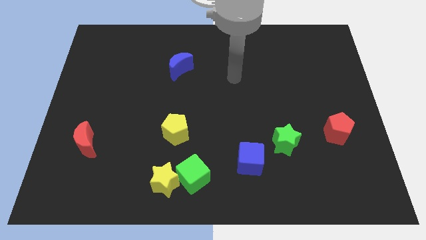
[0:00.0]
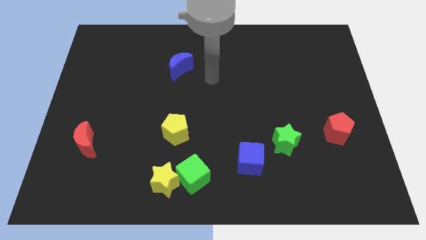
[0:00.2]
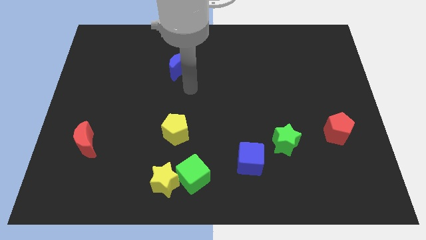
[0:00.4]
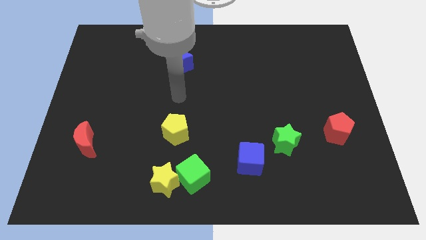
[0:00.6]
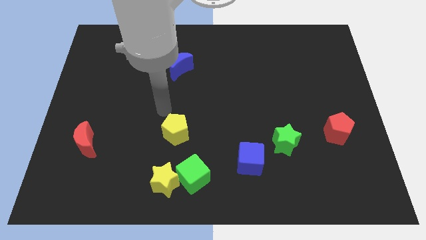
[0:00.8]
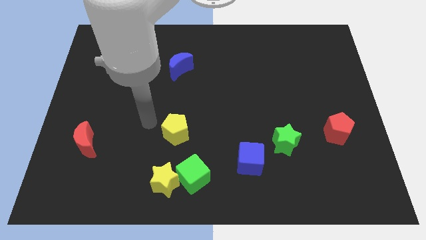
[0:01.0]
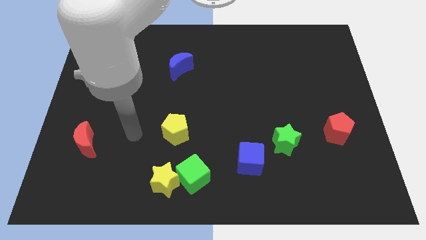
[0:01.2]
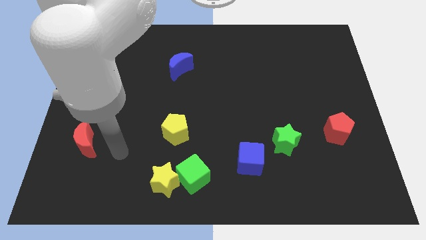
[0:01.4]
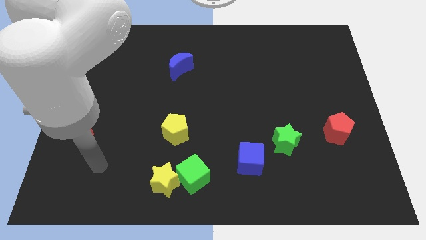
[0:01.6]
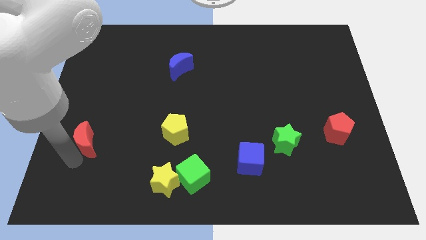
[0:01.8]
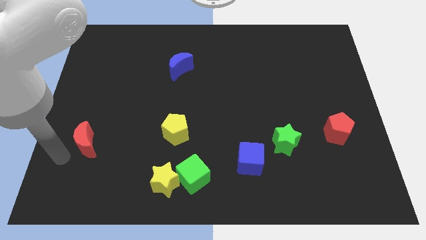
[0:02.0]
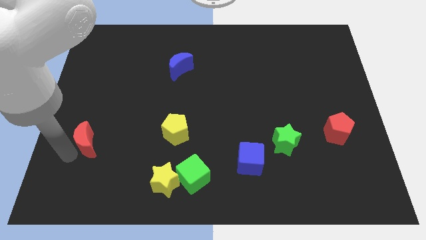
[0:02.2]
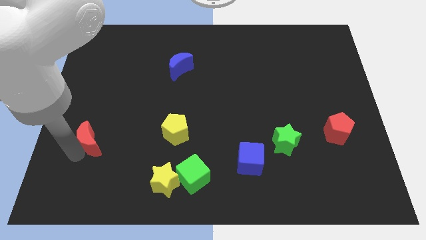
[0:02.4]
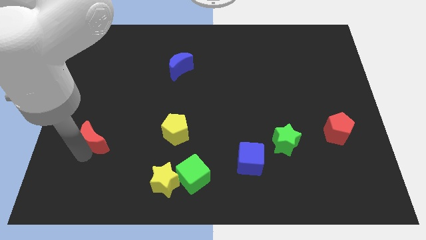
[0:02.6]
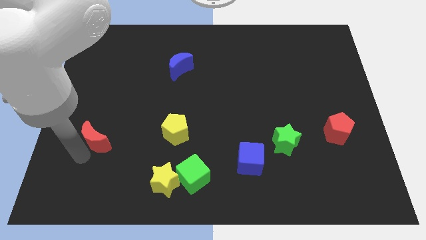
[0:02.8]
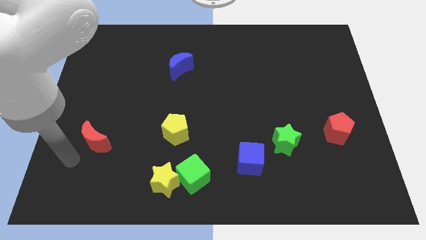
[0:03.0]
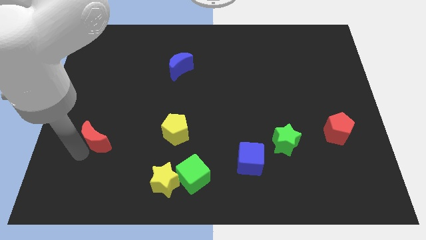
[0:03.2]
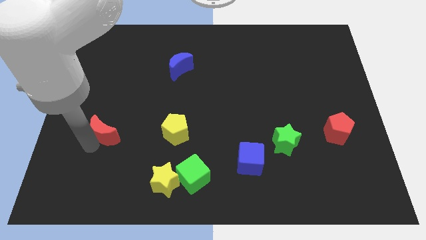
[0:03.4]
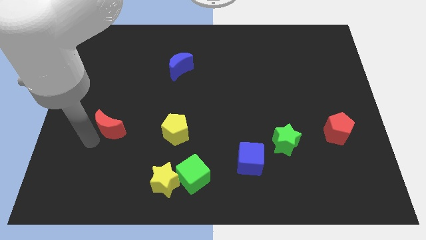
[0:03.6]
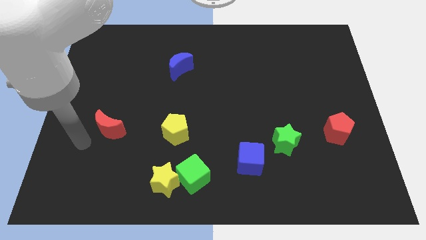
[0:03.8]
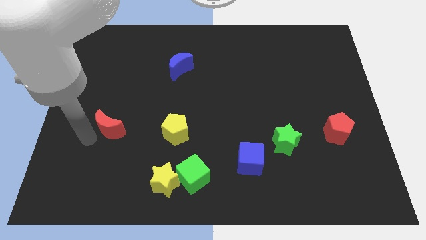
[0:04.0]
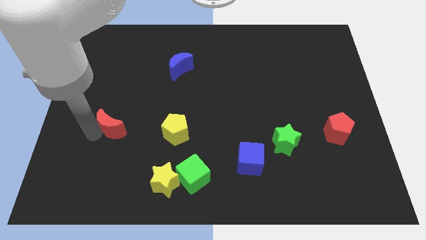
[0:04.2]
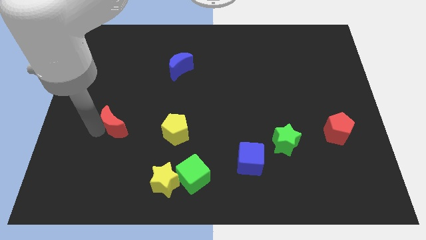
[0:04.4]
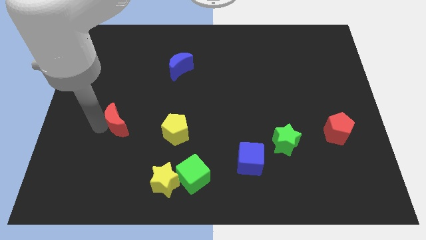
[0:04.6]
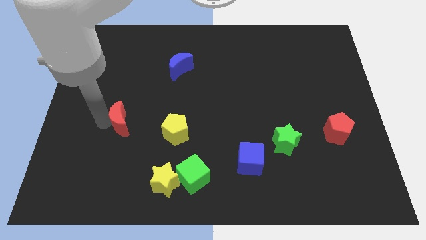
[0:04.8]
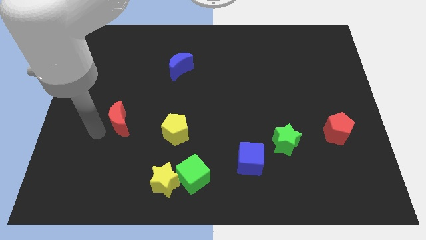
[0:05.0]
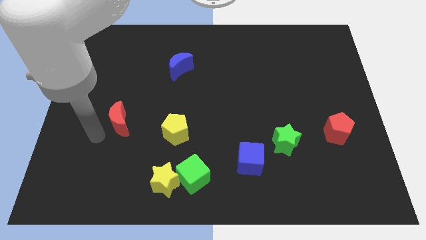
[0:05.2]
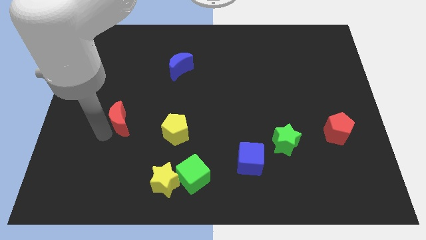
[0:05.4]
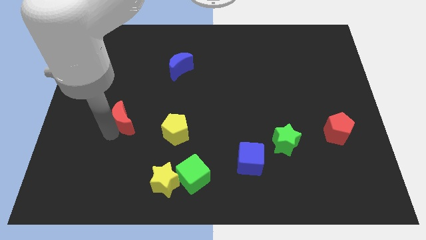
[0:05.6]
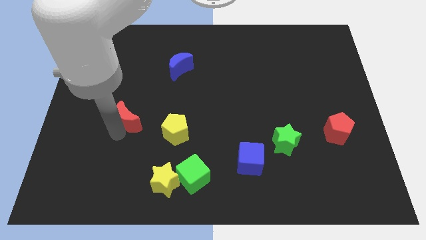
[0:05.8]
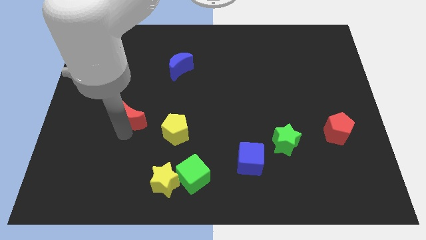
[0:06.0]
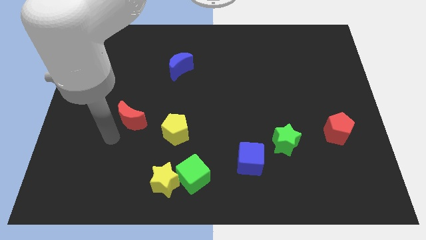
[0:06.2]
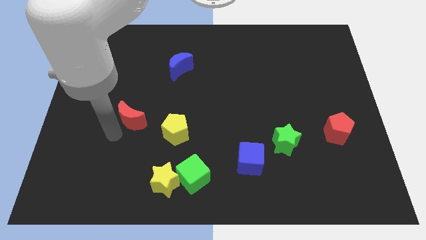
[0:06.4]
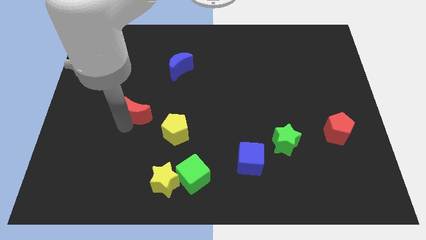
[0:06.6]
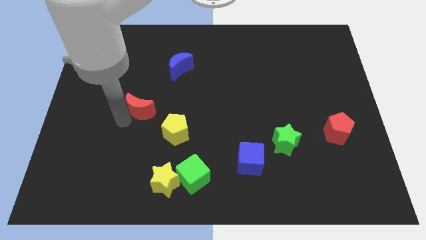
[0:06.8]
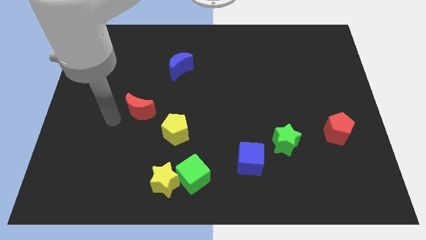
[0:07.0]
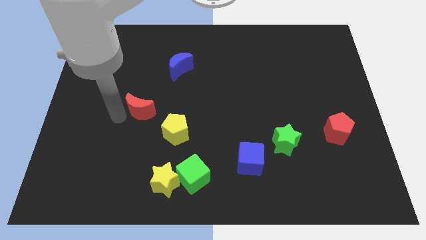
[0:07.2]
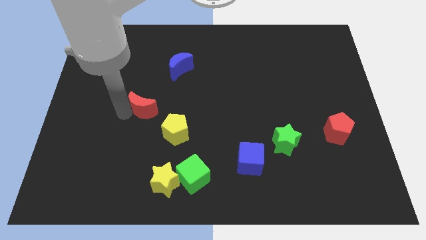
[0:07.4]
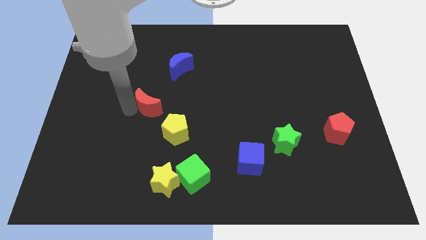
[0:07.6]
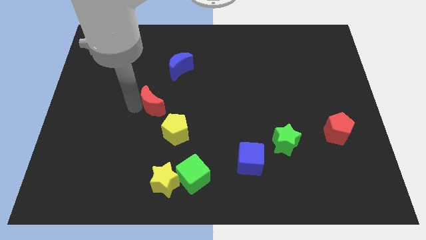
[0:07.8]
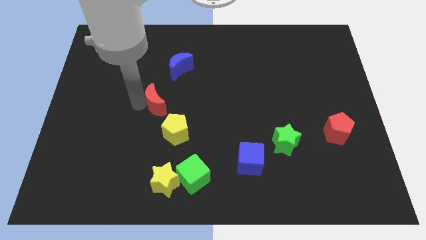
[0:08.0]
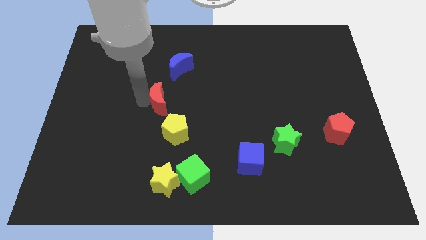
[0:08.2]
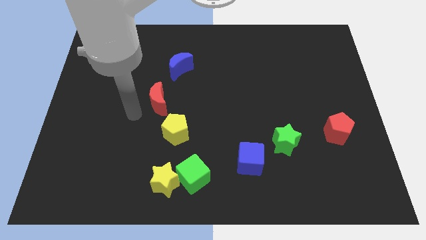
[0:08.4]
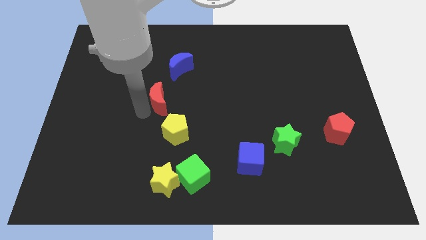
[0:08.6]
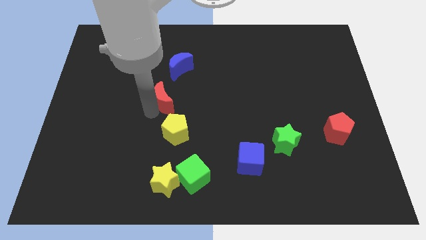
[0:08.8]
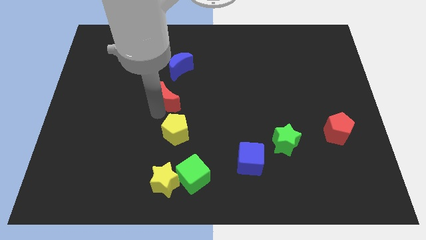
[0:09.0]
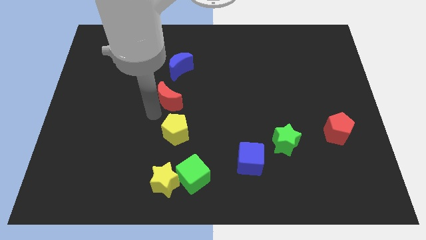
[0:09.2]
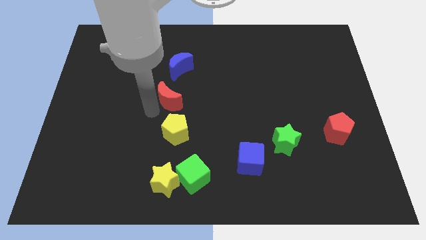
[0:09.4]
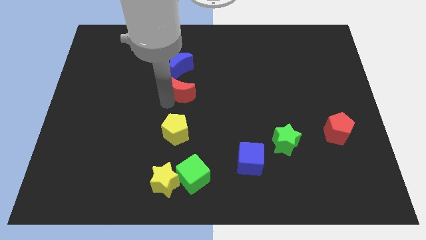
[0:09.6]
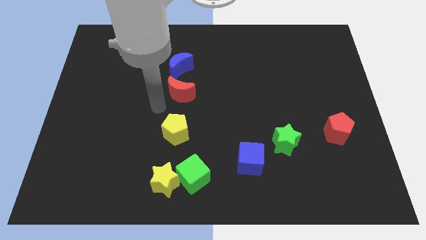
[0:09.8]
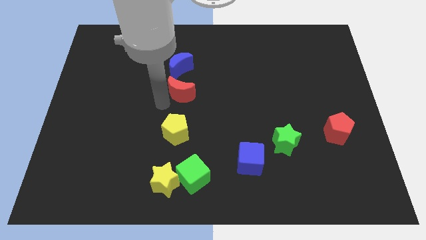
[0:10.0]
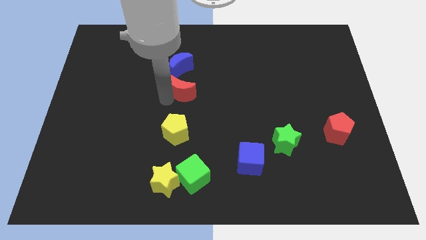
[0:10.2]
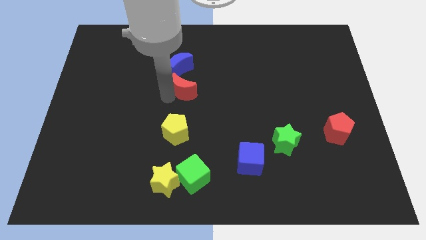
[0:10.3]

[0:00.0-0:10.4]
push the red moon to the bottom right of the blue moon
